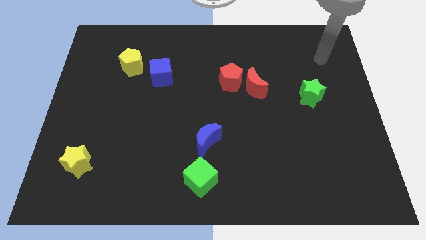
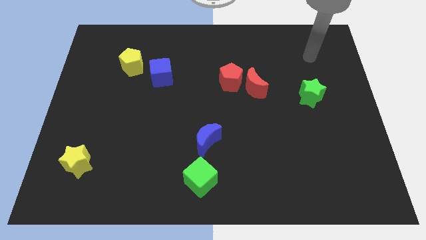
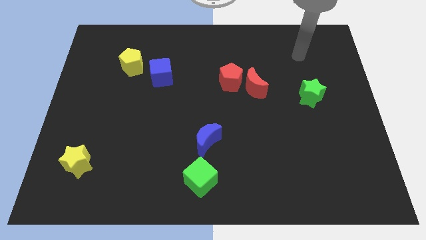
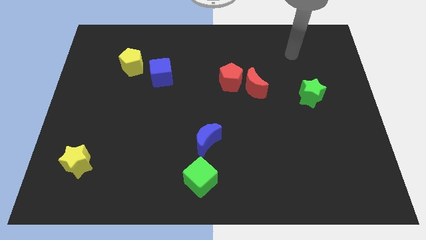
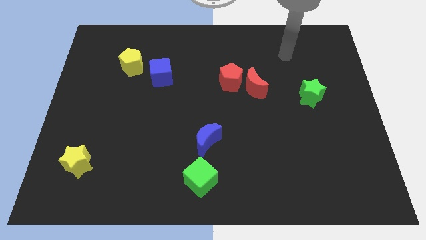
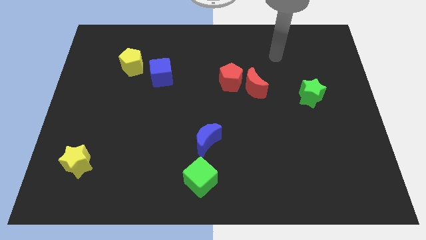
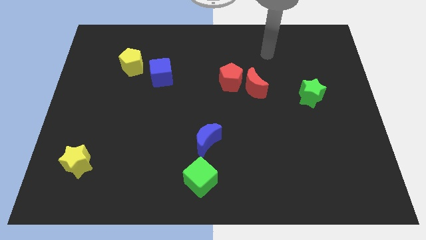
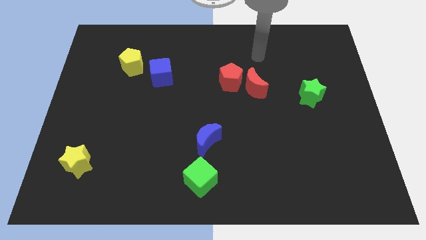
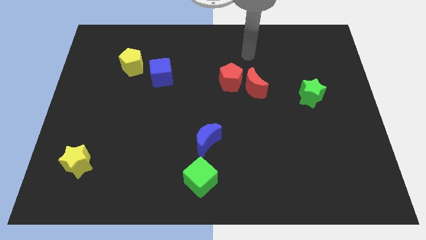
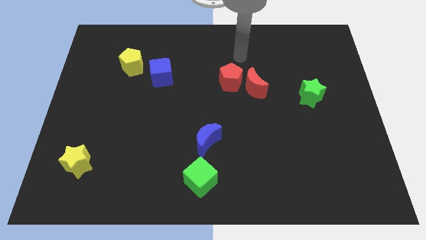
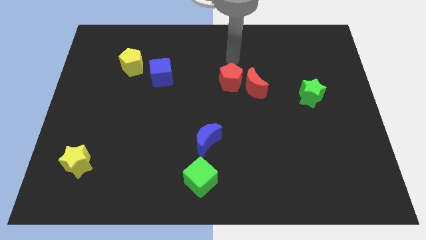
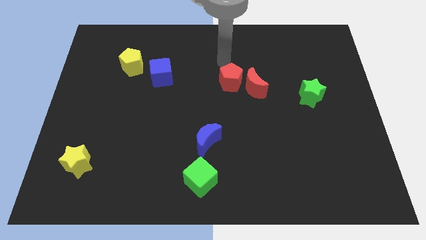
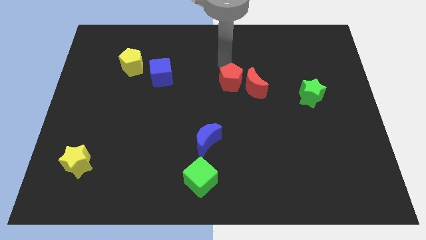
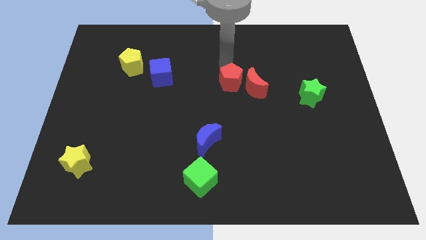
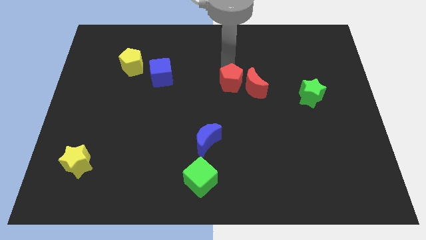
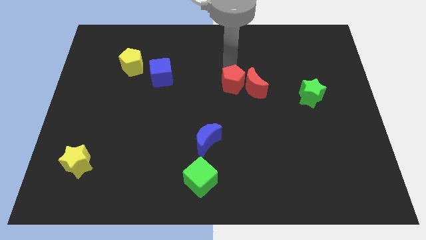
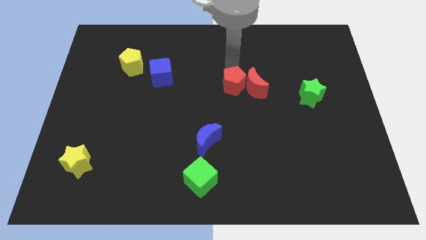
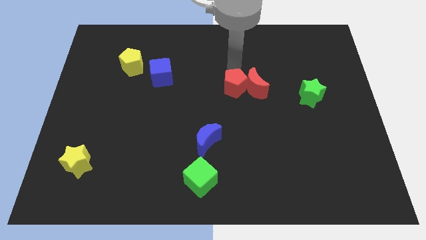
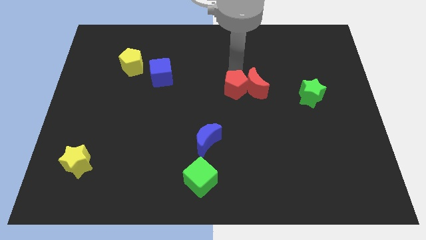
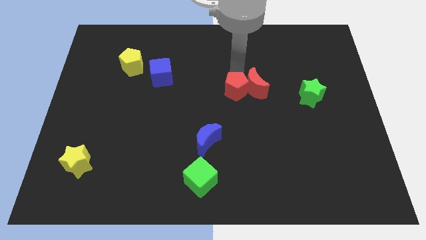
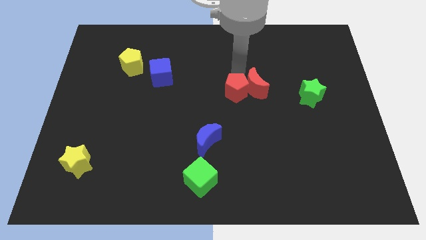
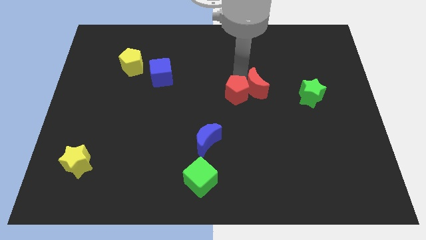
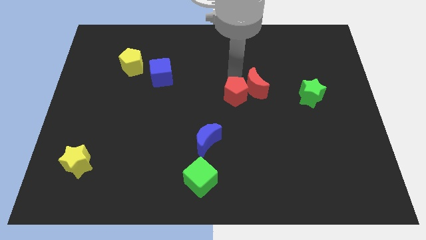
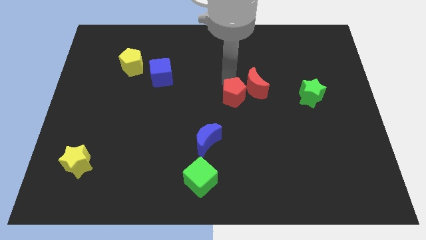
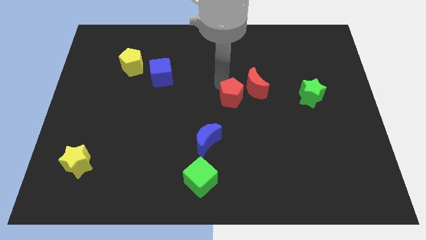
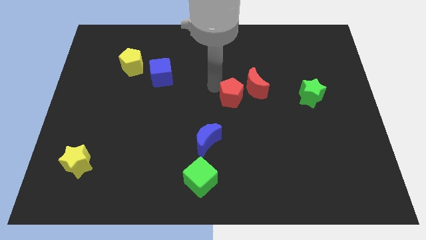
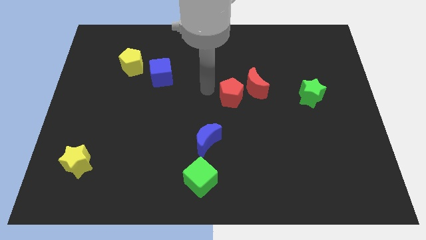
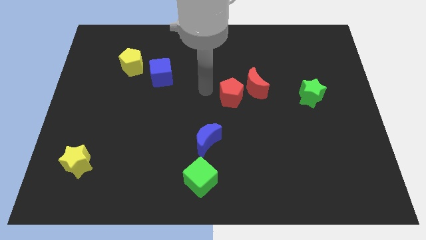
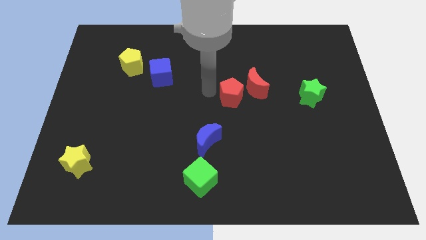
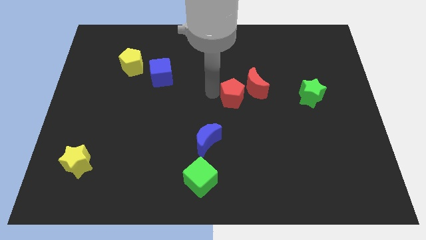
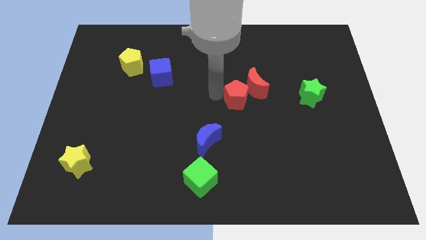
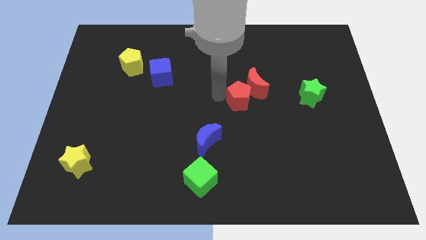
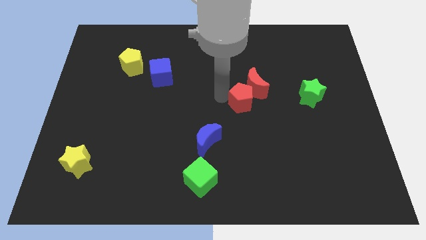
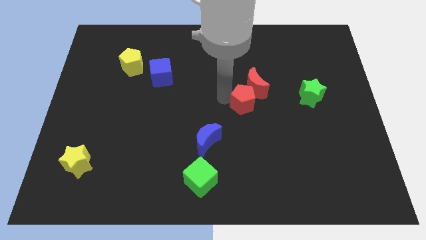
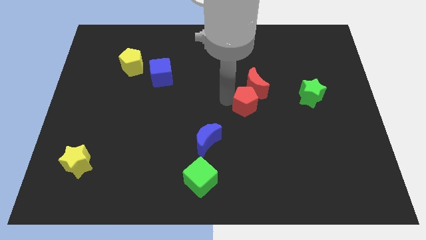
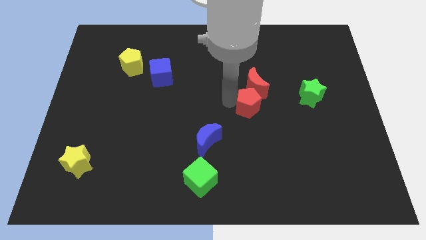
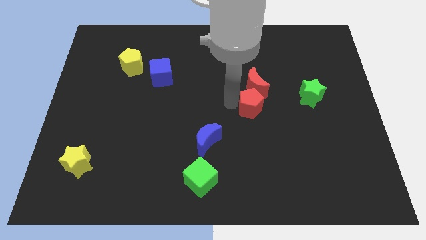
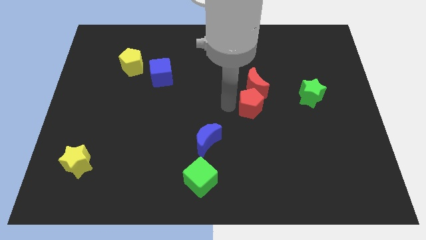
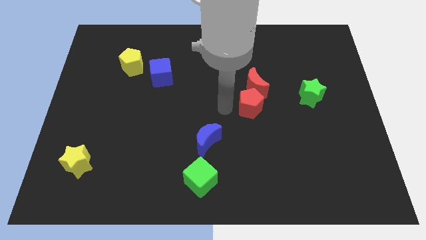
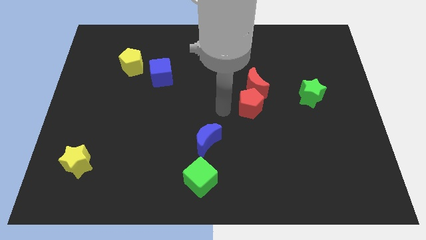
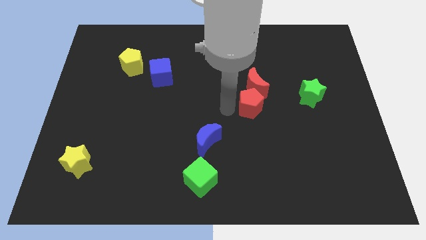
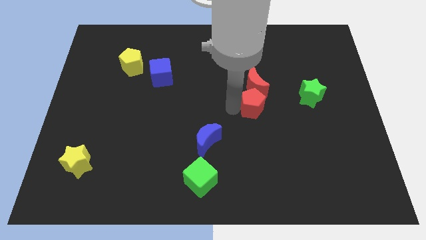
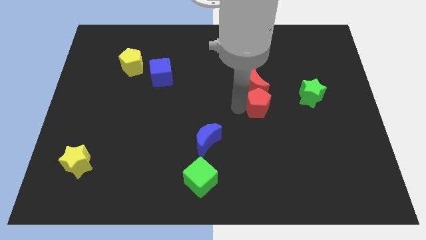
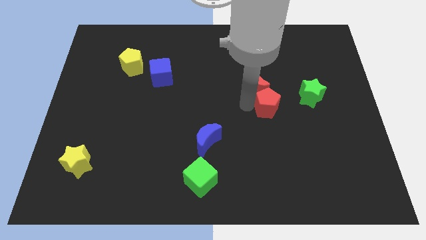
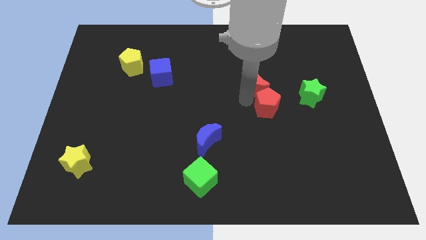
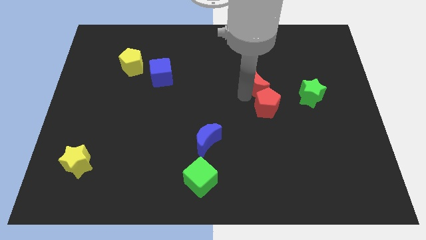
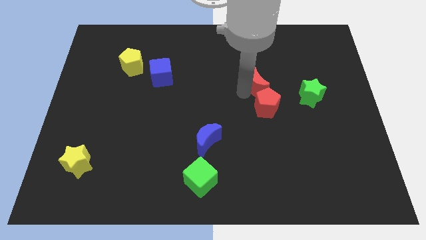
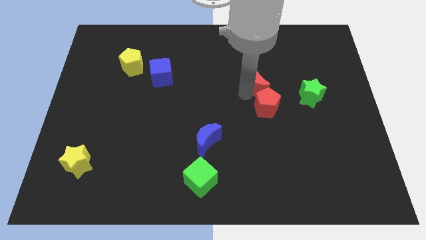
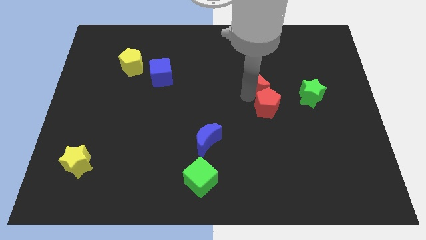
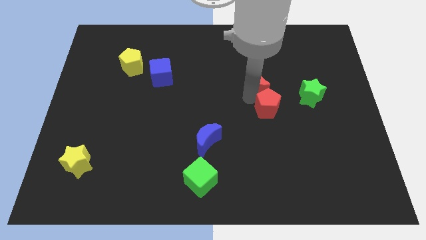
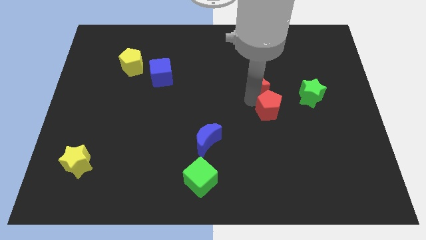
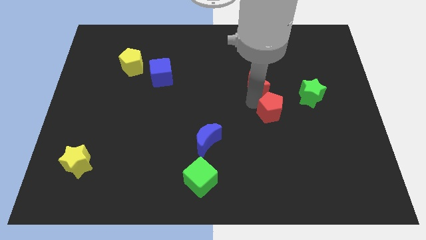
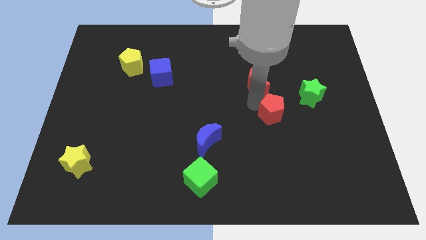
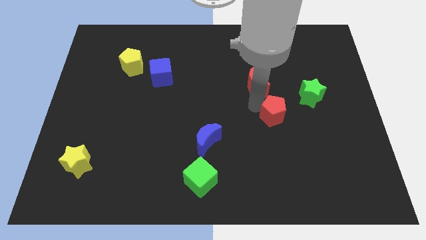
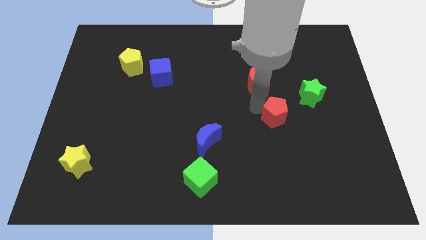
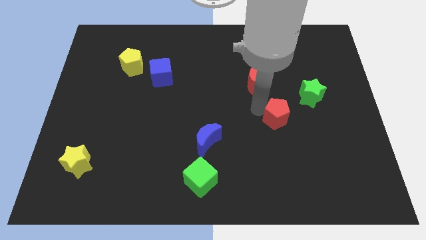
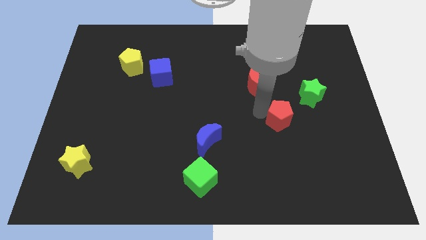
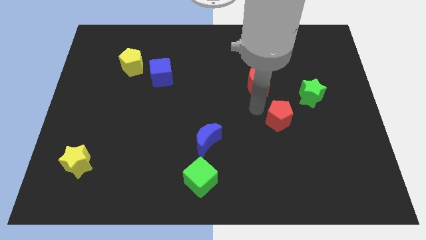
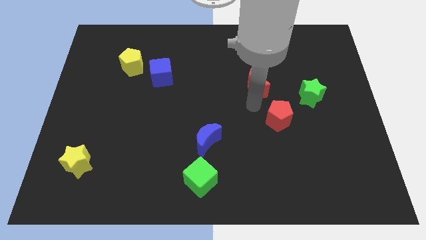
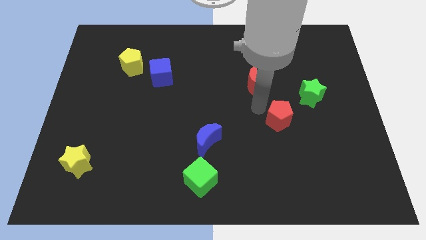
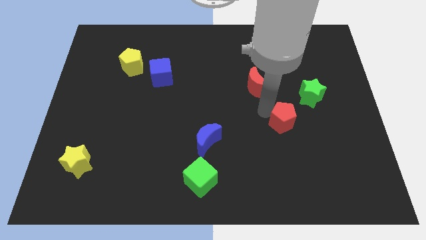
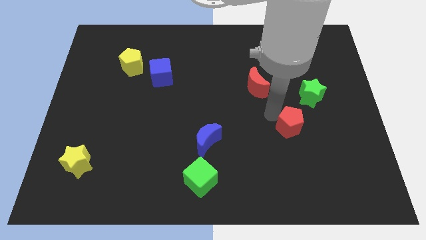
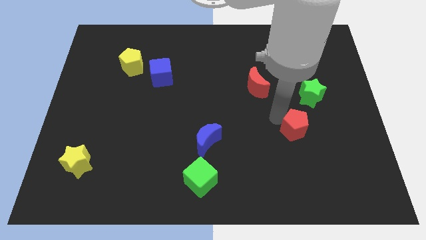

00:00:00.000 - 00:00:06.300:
slide the red pentagon downwards and to the right

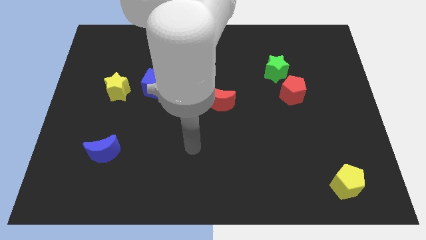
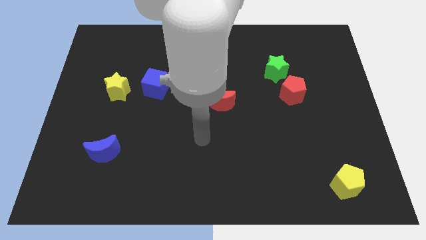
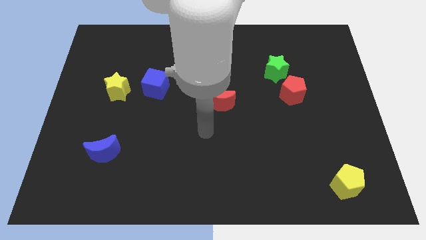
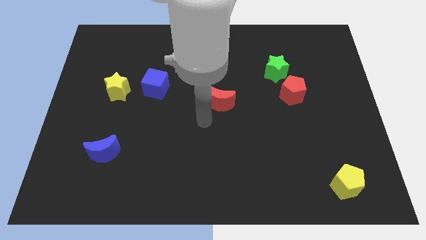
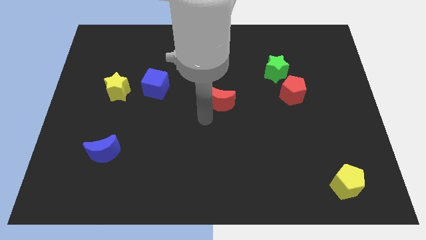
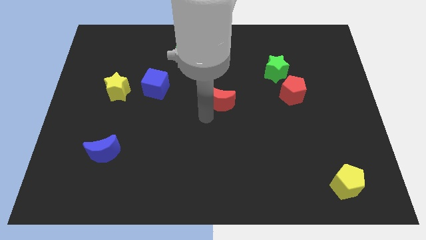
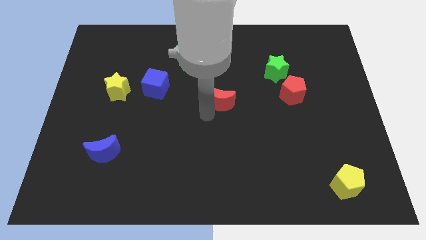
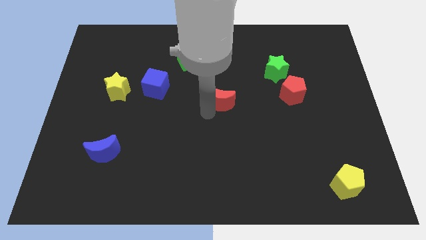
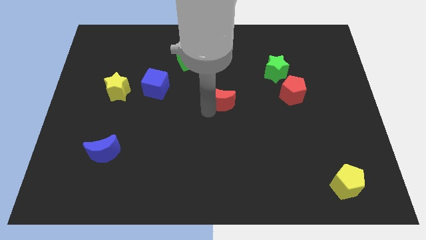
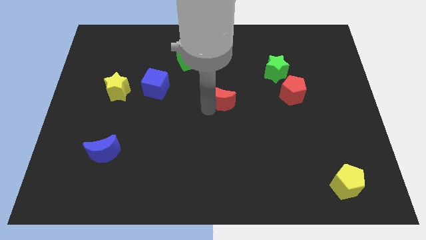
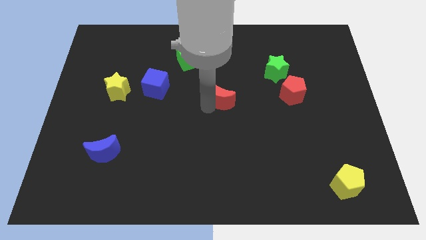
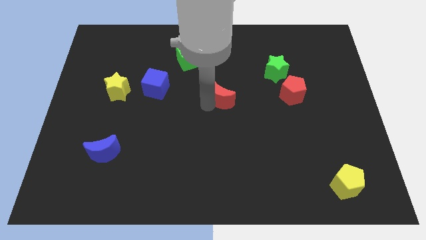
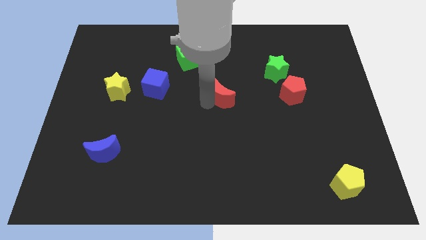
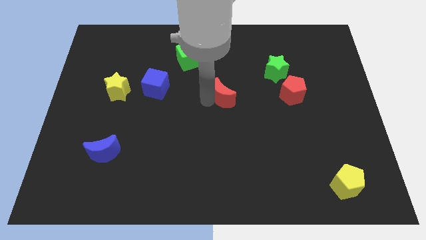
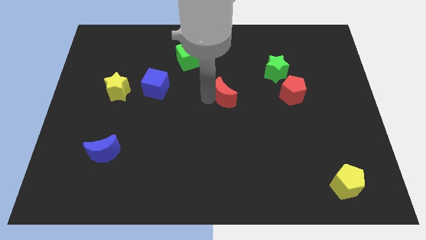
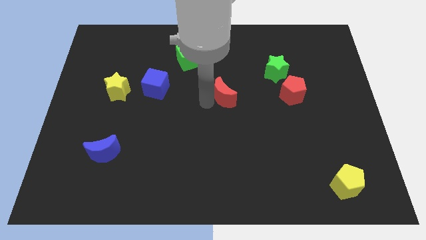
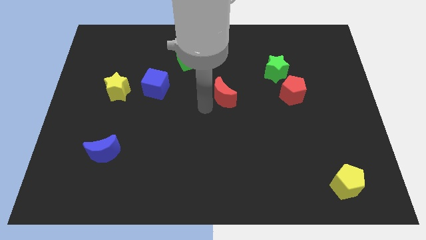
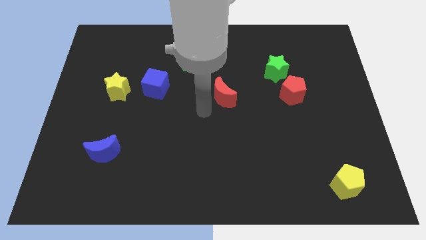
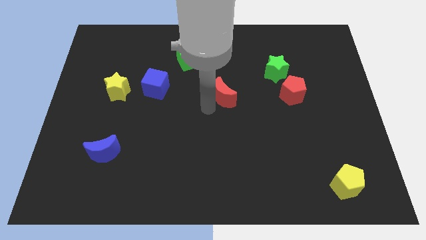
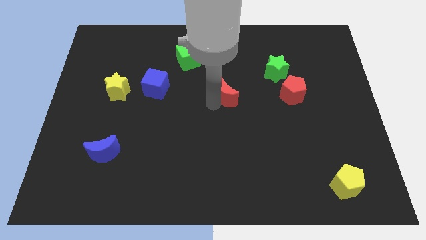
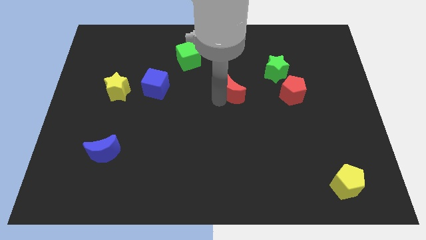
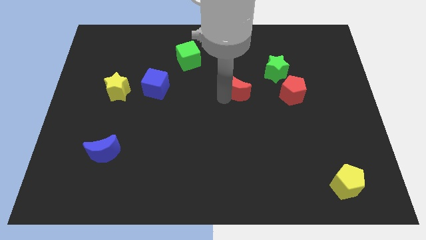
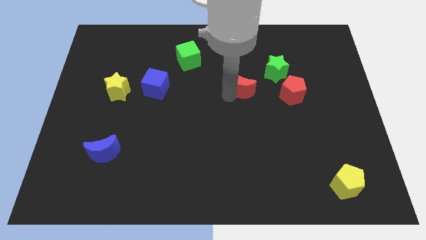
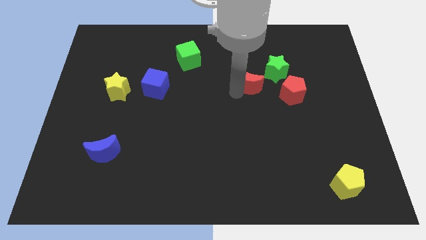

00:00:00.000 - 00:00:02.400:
slightly push the red moon diagonally upwards and to the right
